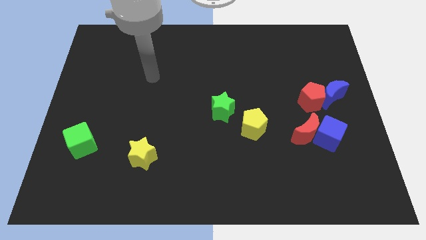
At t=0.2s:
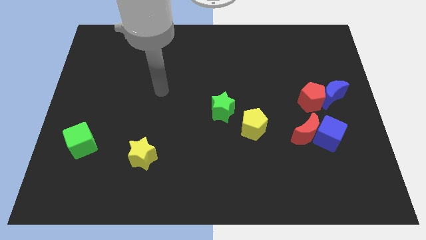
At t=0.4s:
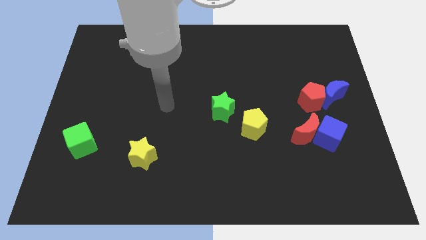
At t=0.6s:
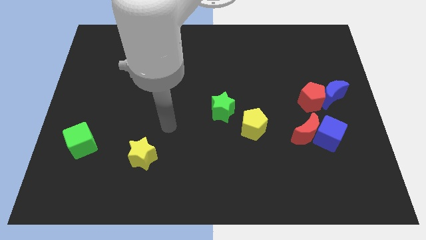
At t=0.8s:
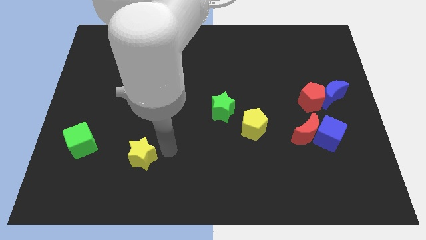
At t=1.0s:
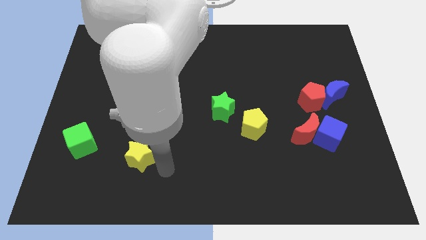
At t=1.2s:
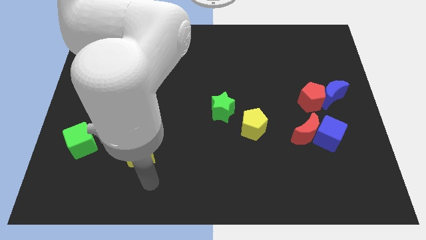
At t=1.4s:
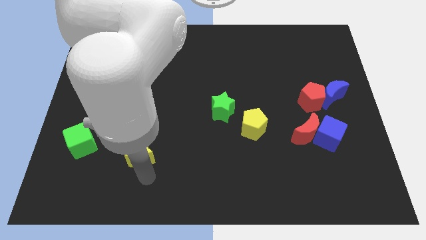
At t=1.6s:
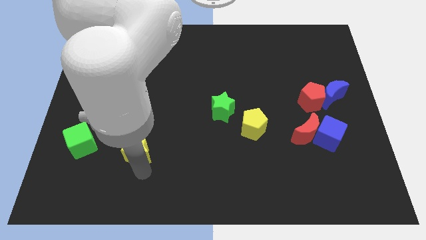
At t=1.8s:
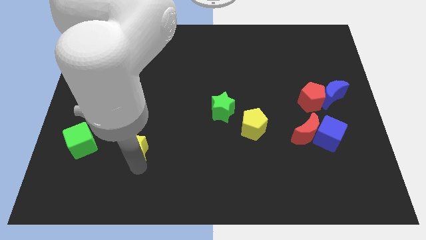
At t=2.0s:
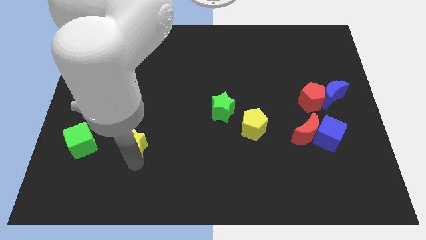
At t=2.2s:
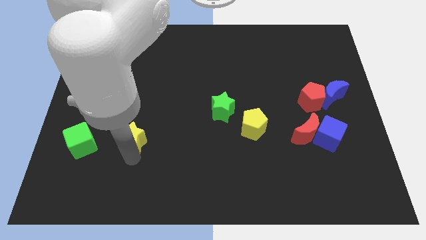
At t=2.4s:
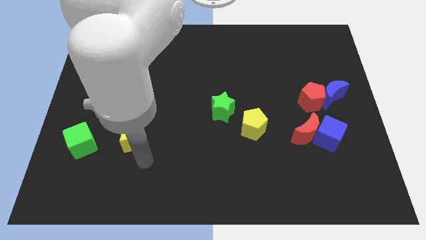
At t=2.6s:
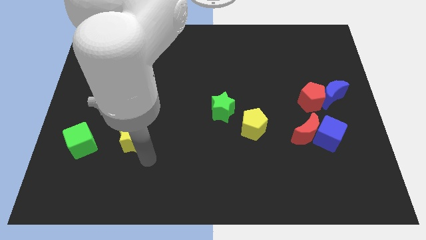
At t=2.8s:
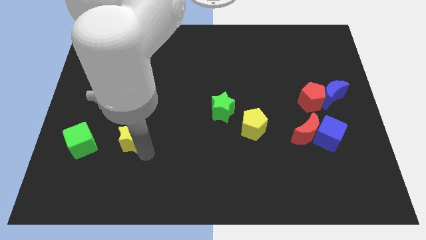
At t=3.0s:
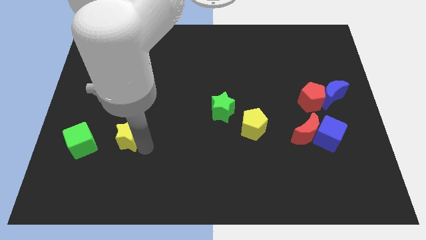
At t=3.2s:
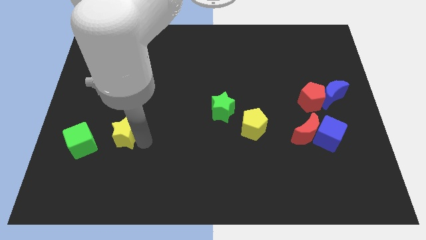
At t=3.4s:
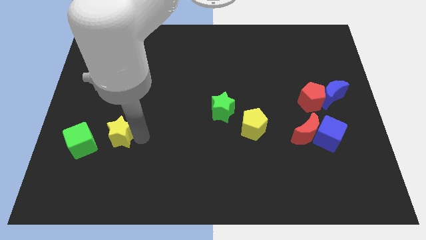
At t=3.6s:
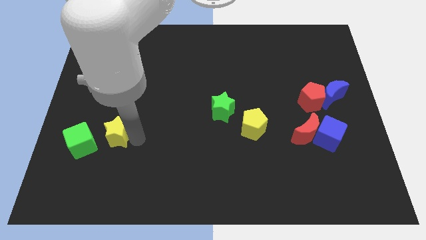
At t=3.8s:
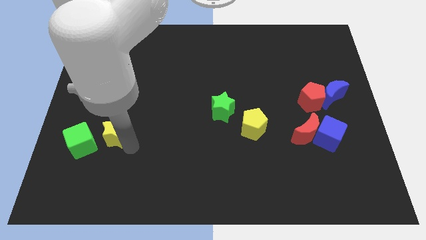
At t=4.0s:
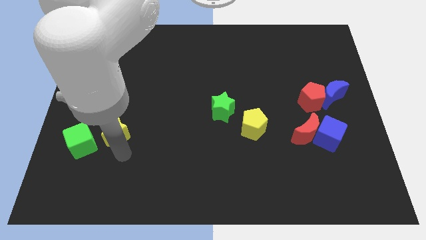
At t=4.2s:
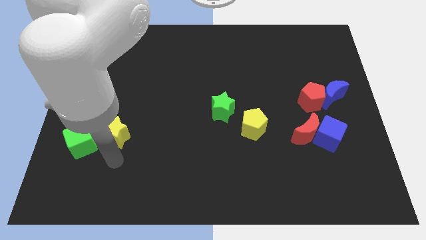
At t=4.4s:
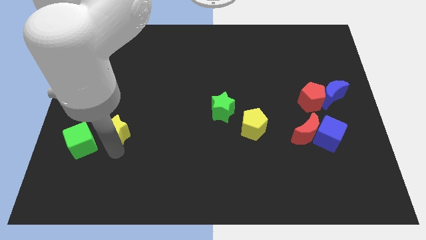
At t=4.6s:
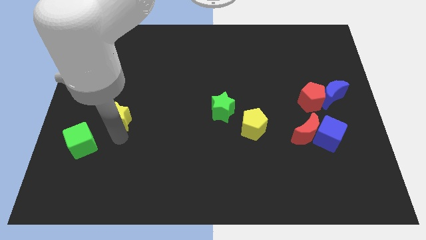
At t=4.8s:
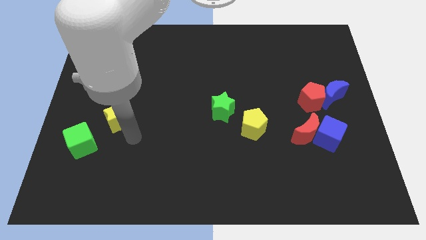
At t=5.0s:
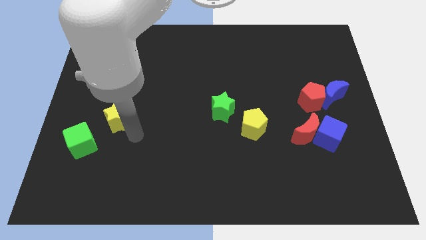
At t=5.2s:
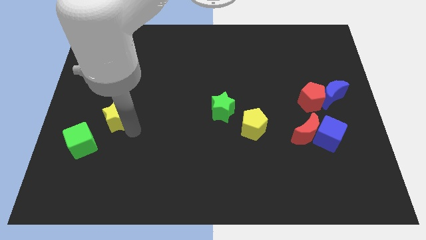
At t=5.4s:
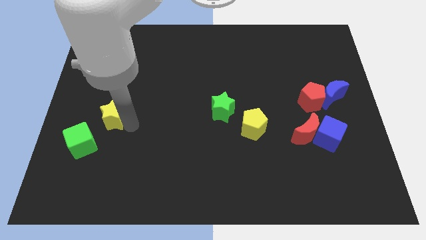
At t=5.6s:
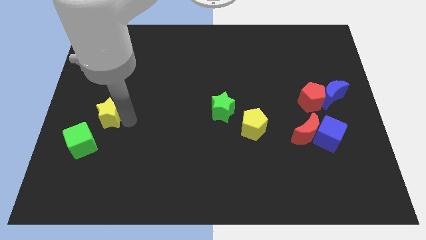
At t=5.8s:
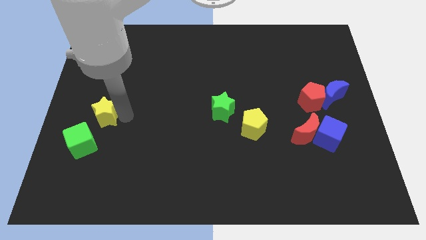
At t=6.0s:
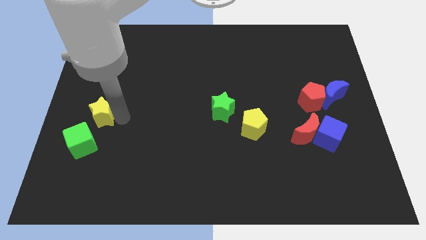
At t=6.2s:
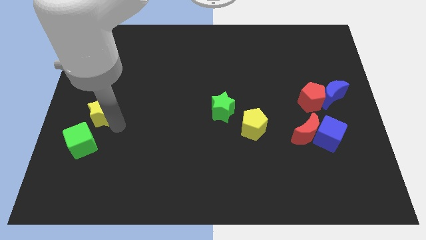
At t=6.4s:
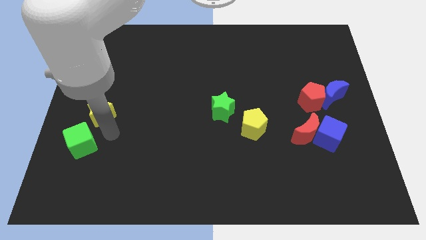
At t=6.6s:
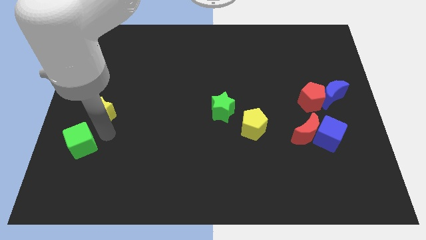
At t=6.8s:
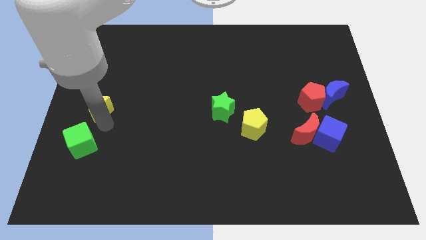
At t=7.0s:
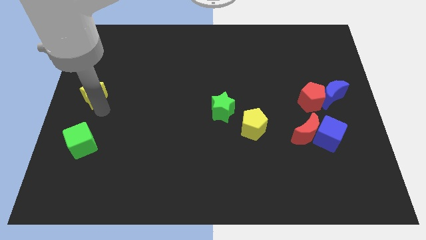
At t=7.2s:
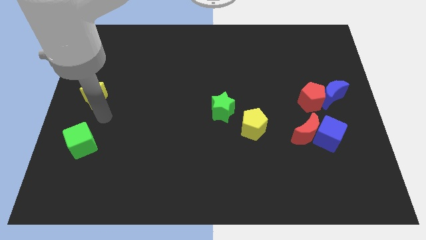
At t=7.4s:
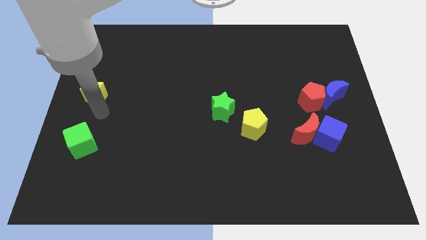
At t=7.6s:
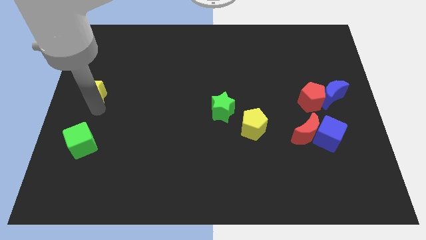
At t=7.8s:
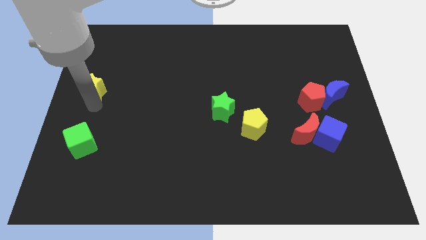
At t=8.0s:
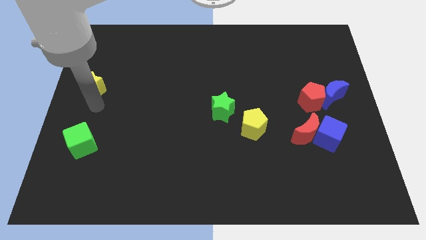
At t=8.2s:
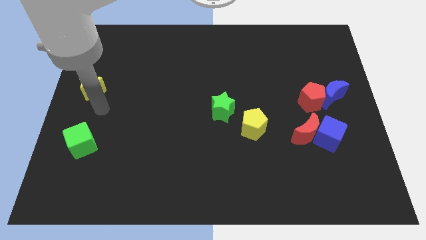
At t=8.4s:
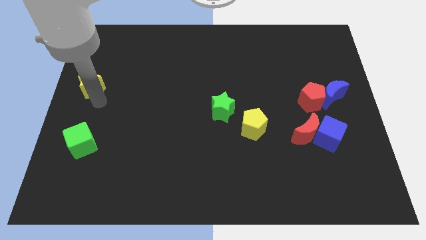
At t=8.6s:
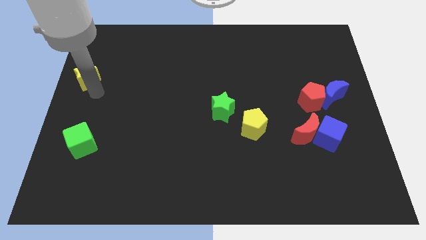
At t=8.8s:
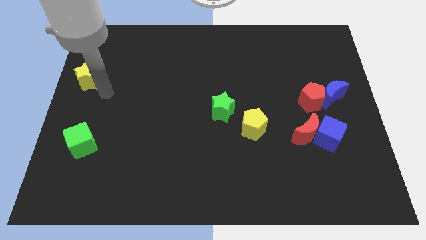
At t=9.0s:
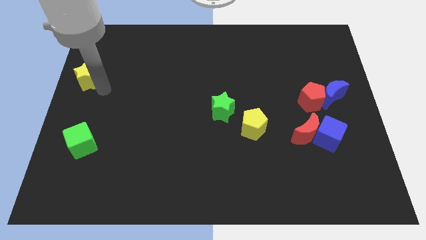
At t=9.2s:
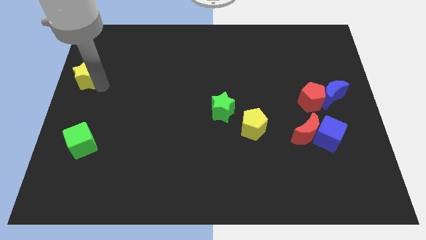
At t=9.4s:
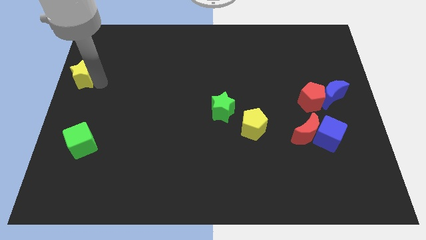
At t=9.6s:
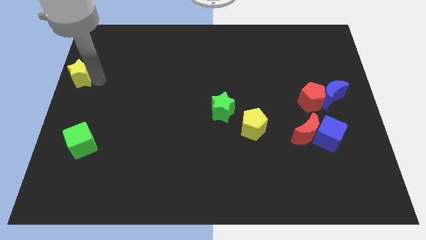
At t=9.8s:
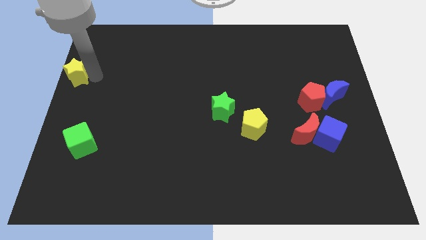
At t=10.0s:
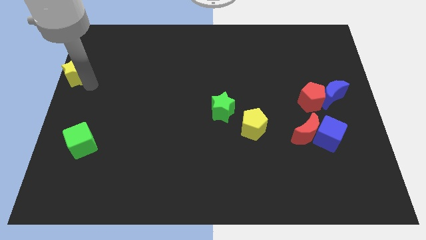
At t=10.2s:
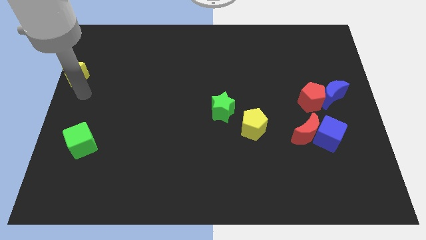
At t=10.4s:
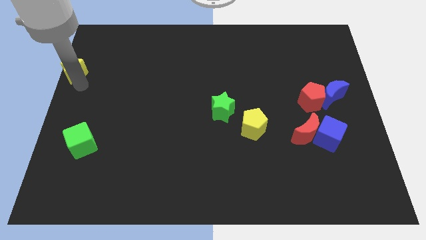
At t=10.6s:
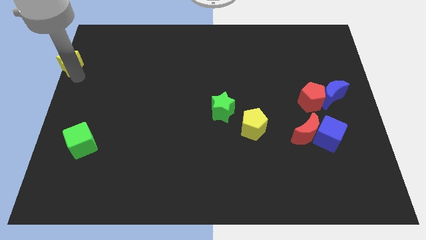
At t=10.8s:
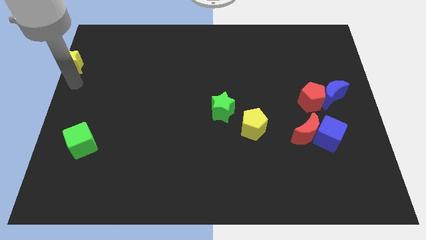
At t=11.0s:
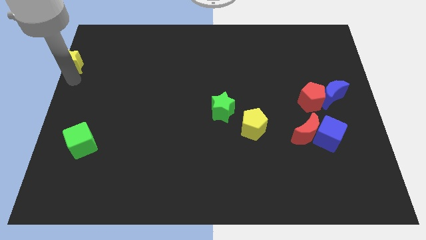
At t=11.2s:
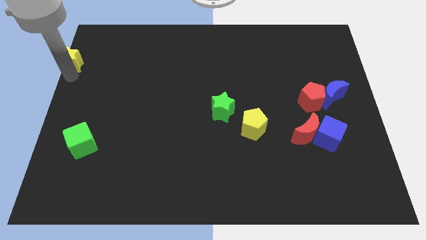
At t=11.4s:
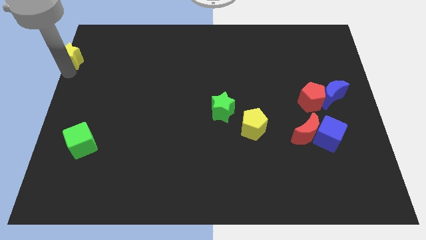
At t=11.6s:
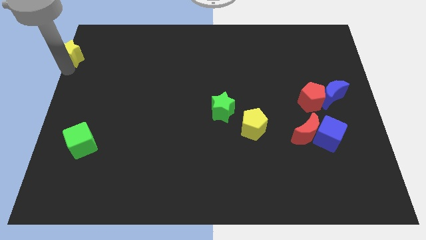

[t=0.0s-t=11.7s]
move the yellow star to the upper left corner
